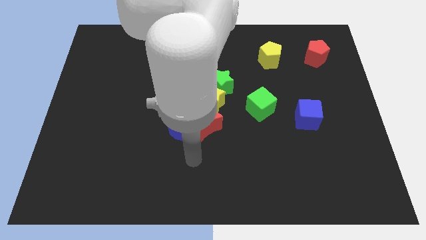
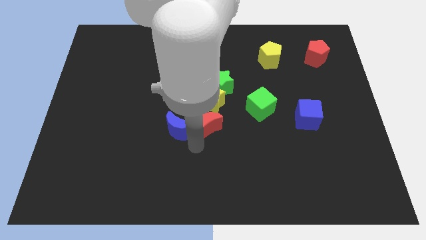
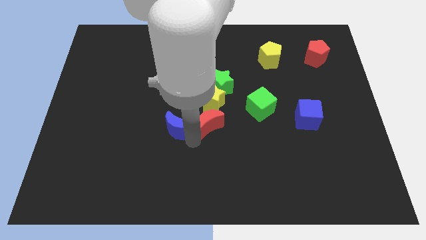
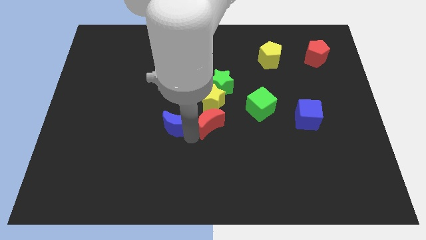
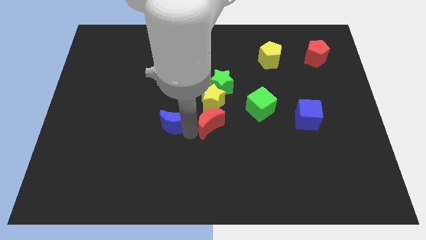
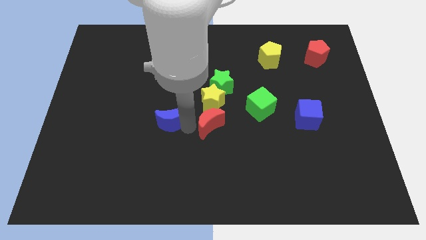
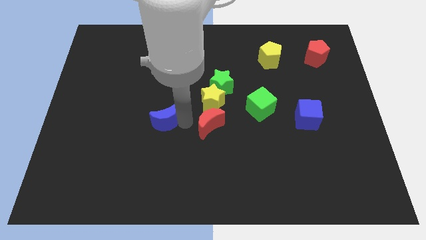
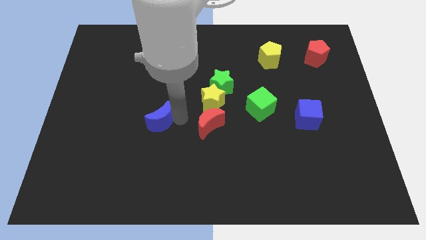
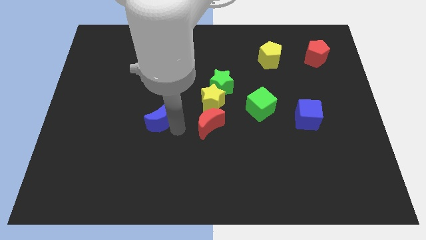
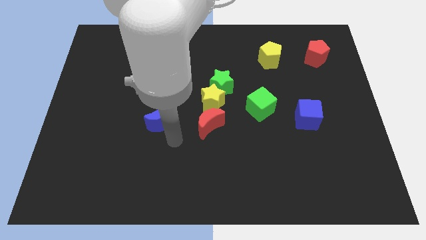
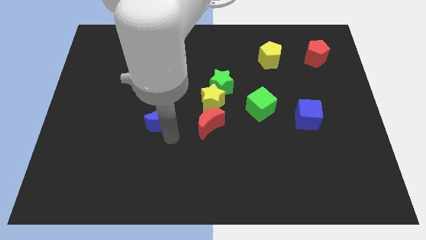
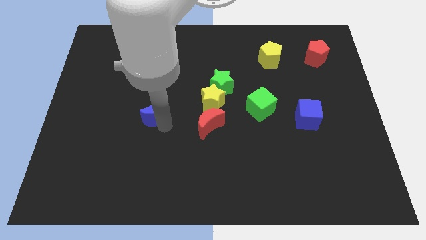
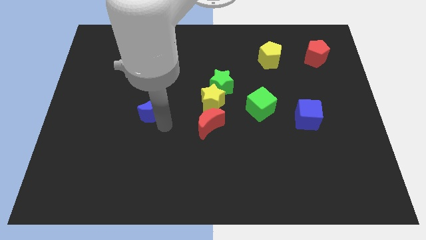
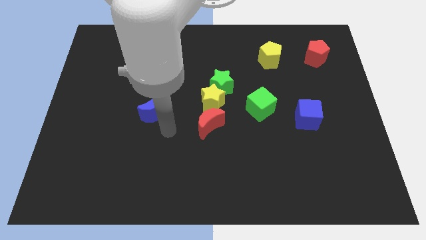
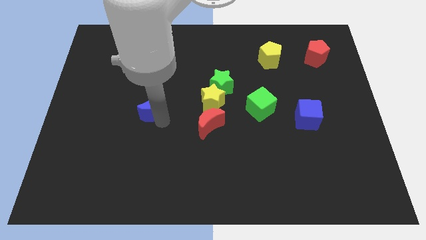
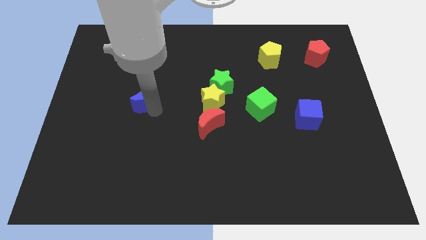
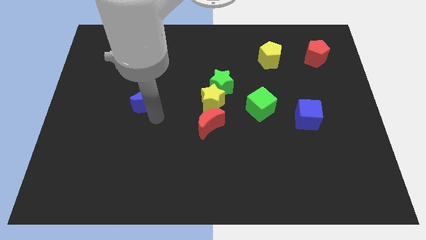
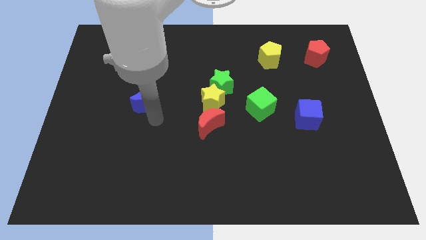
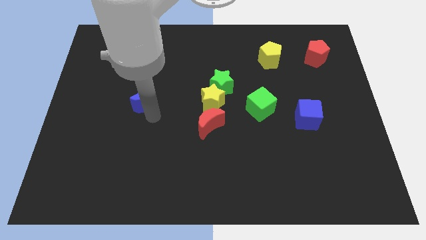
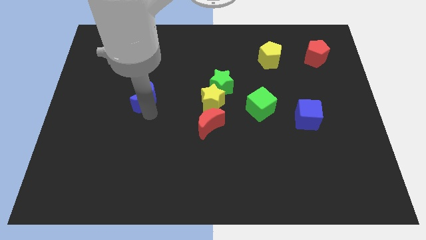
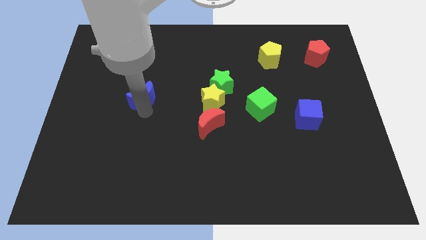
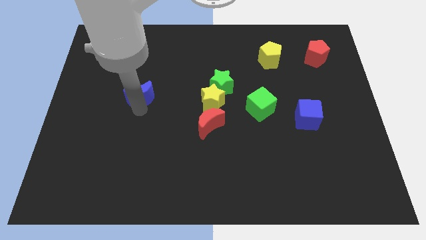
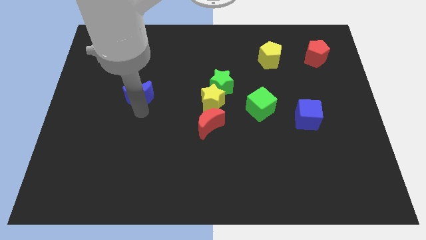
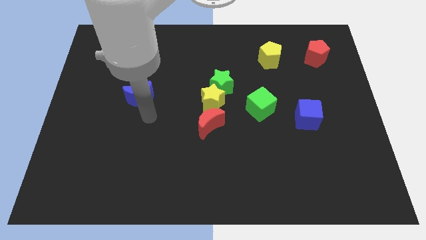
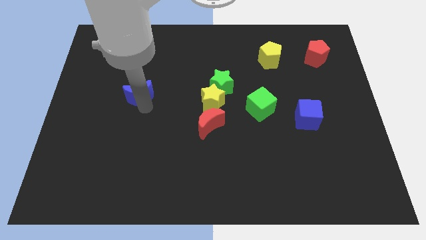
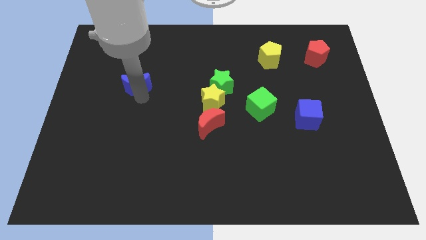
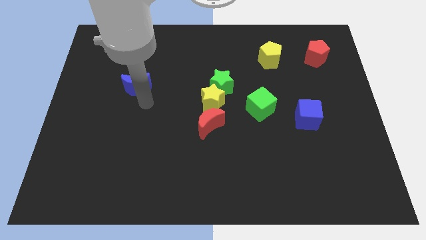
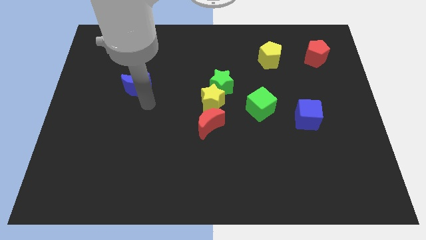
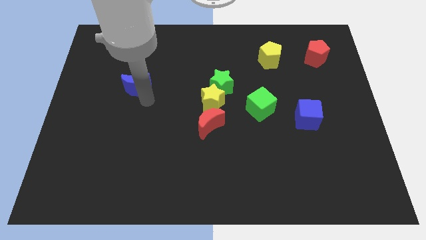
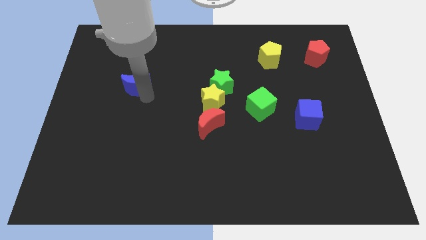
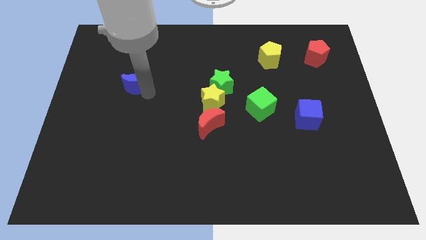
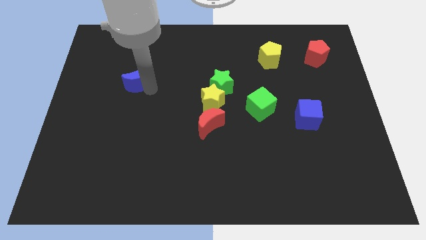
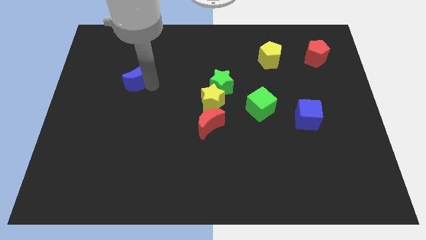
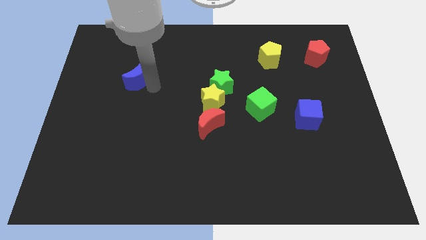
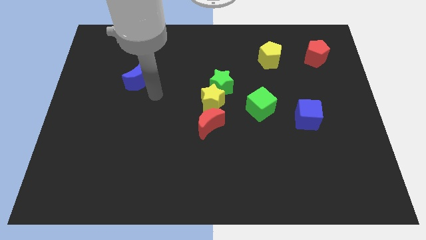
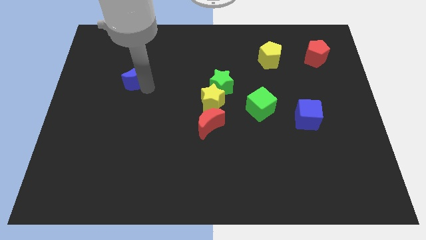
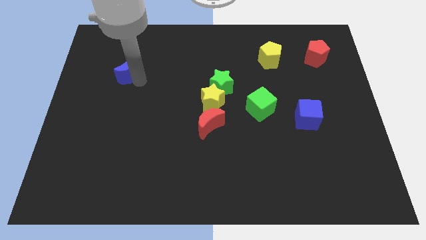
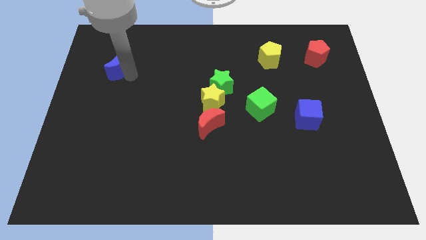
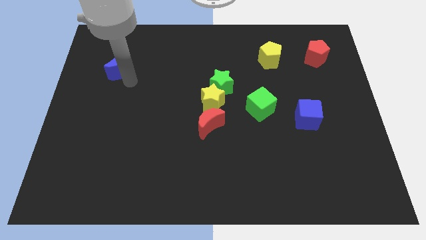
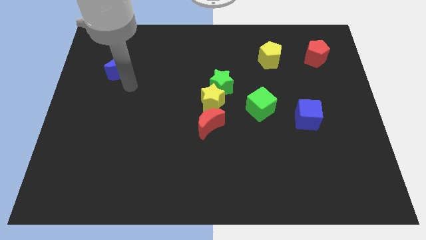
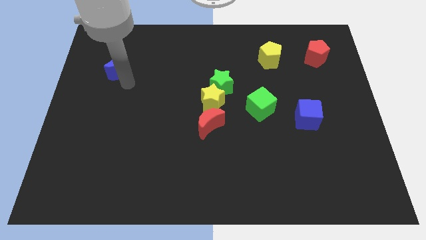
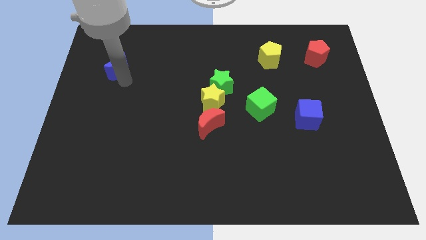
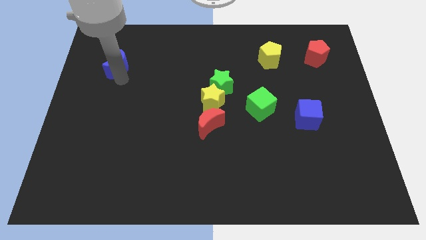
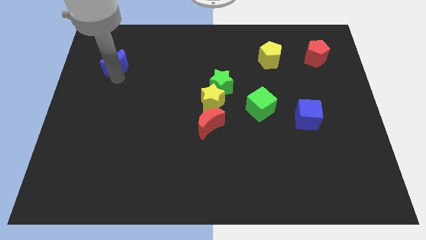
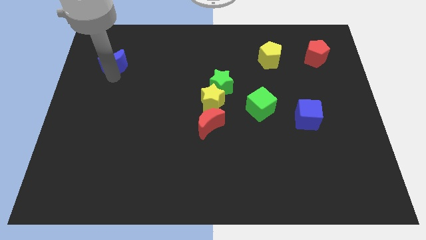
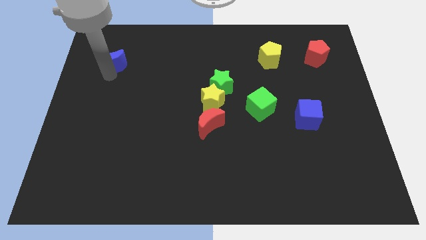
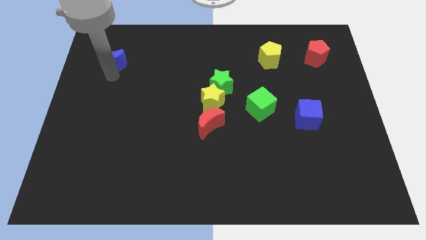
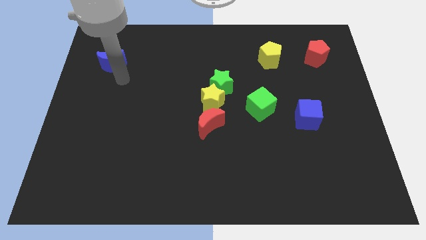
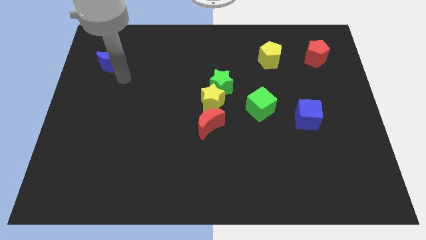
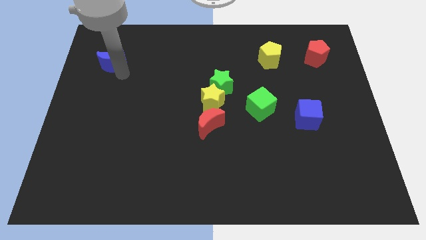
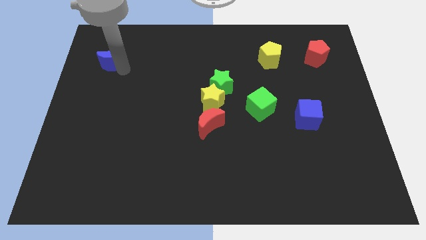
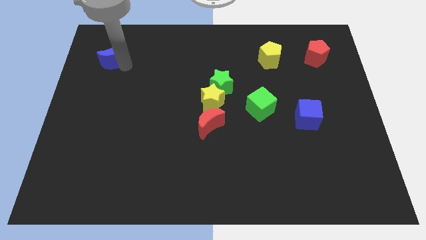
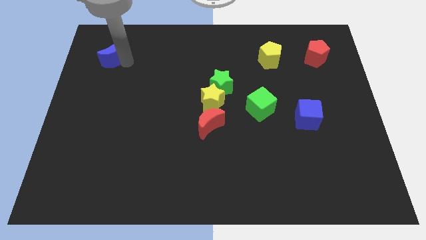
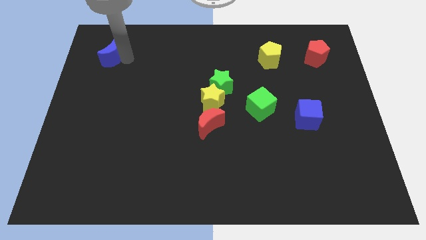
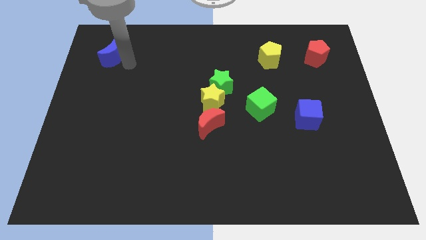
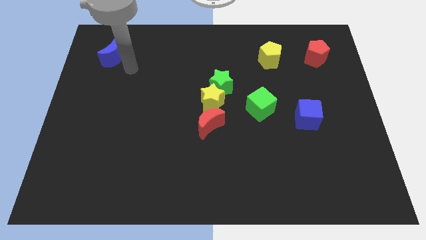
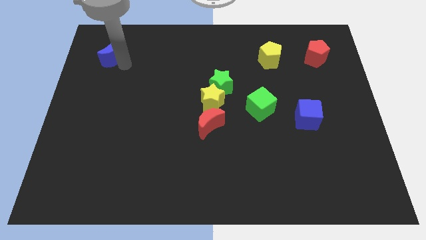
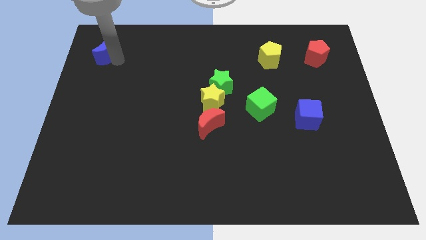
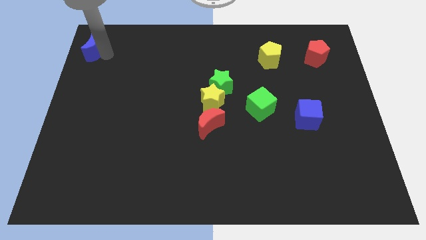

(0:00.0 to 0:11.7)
put the blue moon to the top left corner
